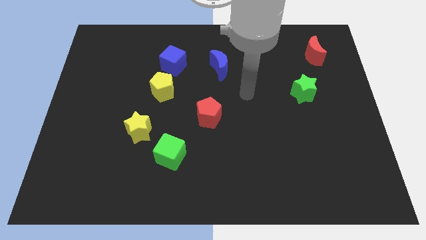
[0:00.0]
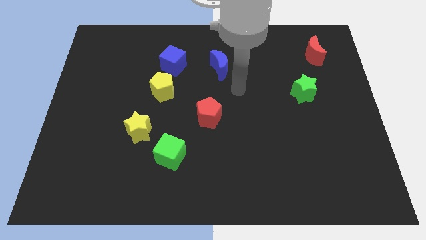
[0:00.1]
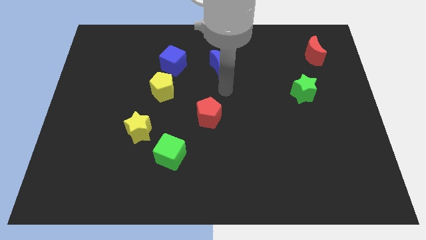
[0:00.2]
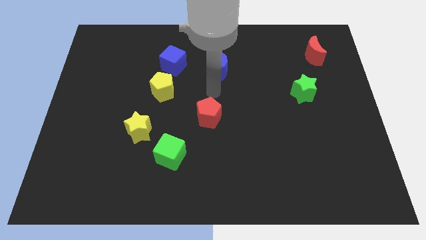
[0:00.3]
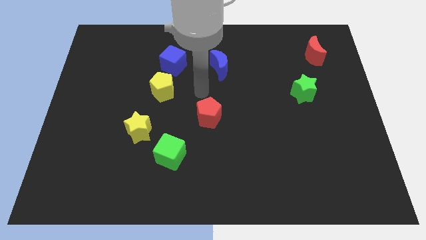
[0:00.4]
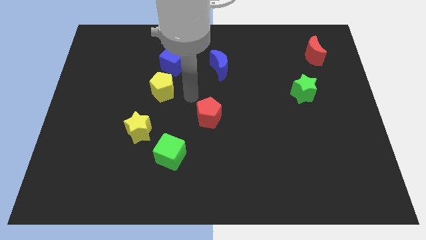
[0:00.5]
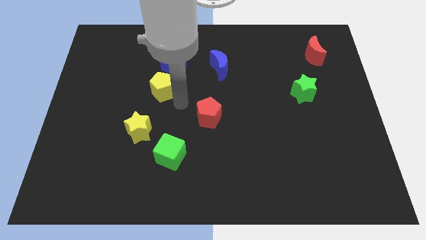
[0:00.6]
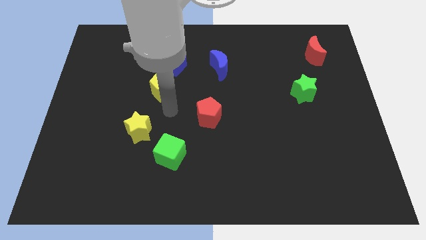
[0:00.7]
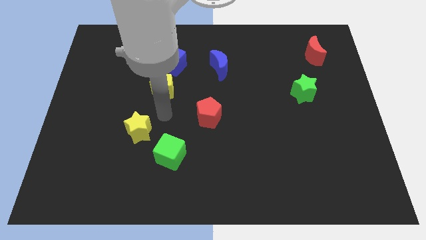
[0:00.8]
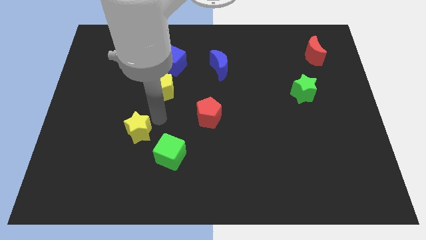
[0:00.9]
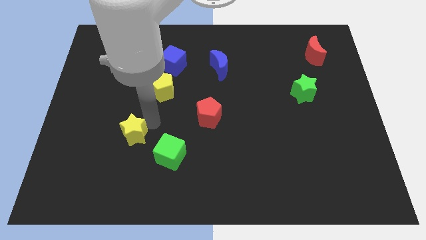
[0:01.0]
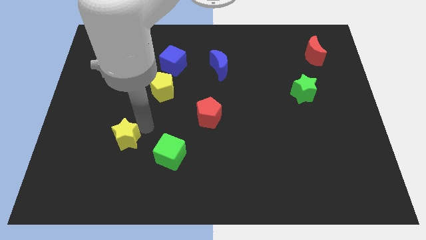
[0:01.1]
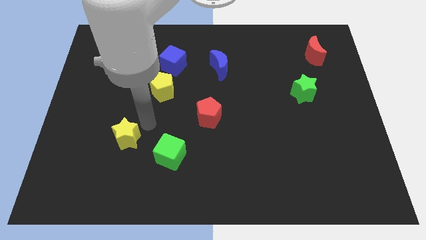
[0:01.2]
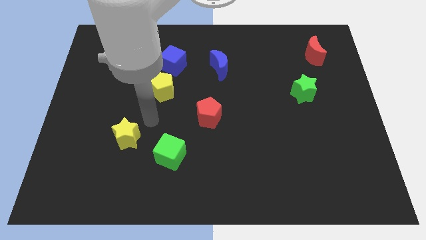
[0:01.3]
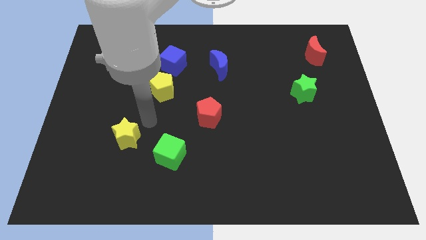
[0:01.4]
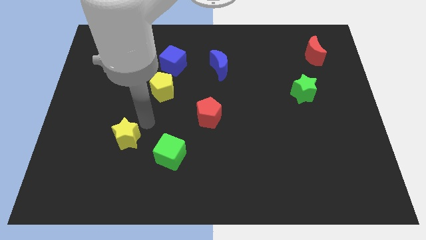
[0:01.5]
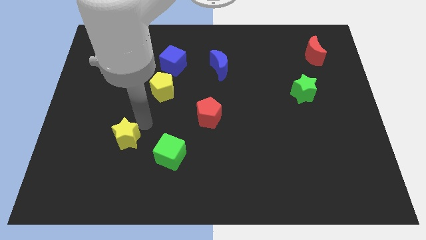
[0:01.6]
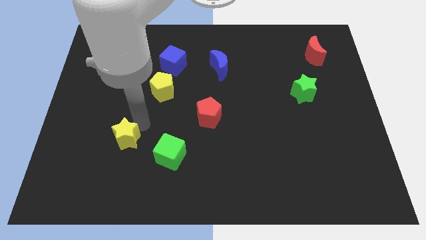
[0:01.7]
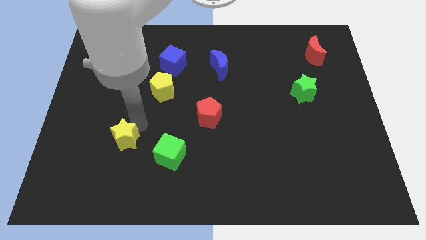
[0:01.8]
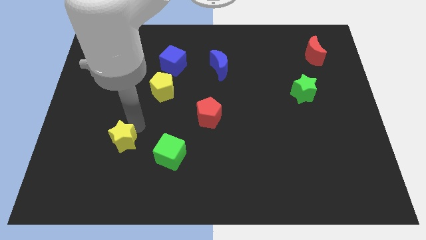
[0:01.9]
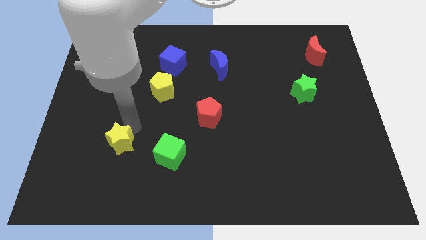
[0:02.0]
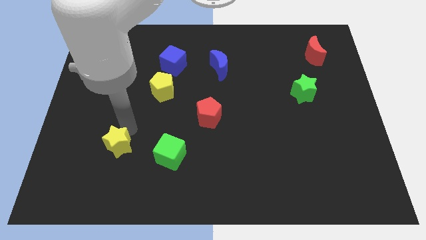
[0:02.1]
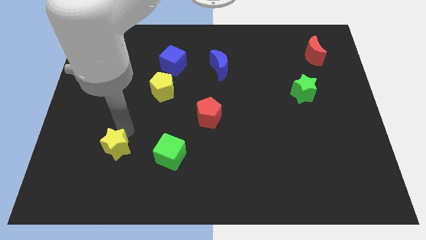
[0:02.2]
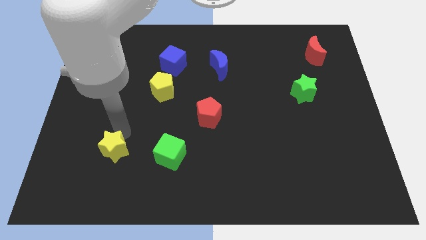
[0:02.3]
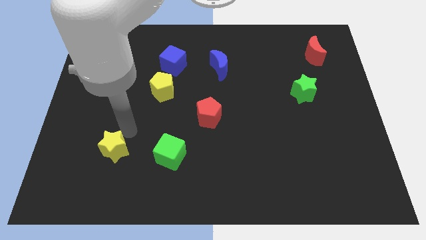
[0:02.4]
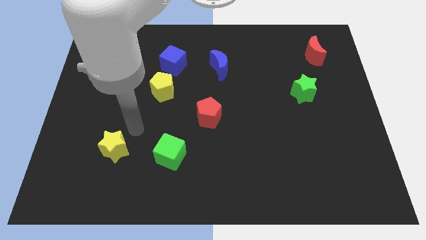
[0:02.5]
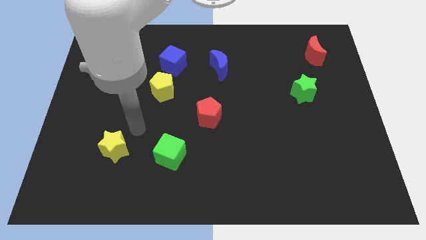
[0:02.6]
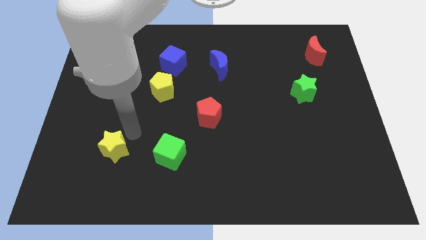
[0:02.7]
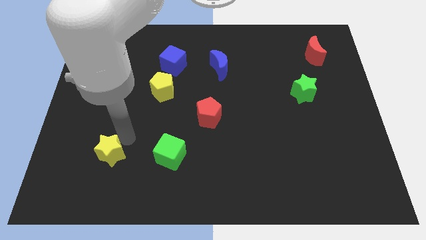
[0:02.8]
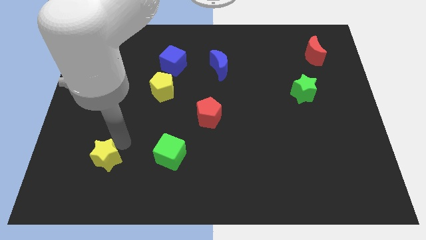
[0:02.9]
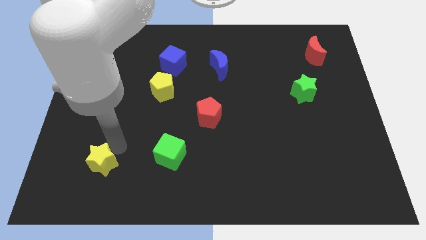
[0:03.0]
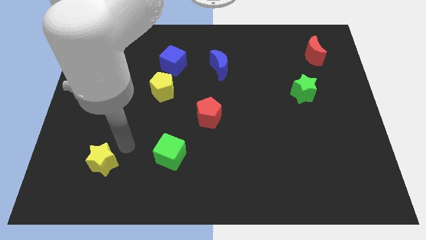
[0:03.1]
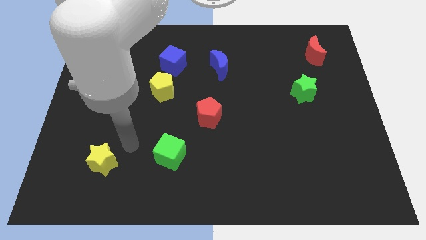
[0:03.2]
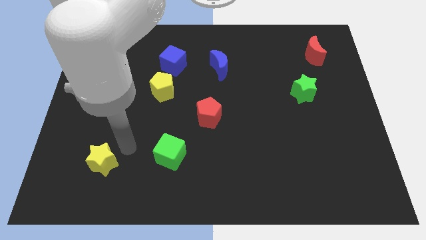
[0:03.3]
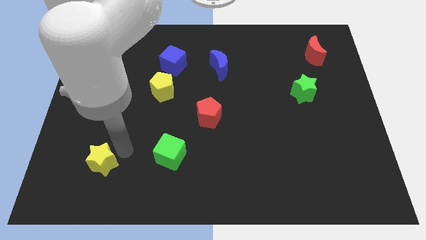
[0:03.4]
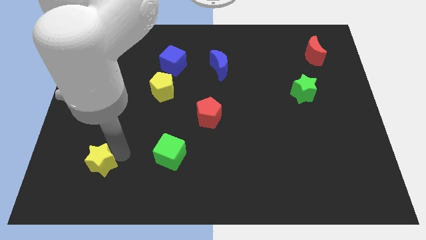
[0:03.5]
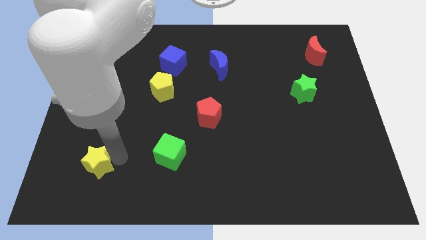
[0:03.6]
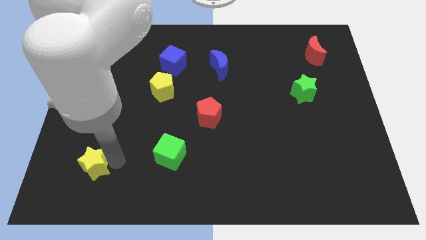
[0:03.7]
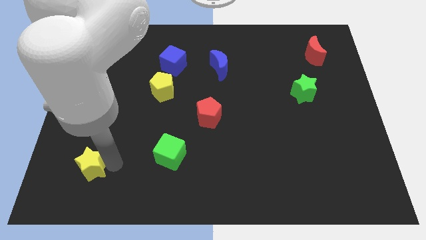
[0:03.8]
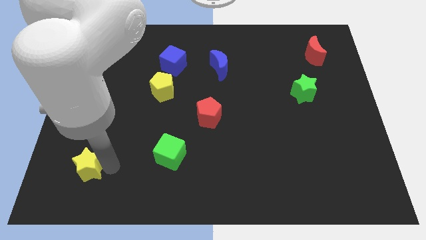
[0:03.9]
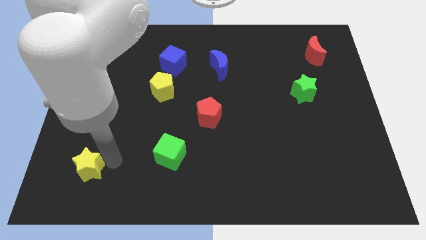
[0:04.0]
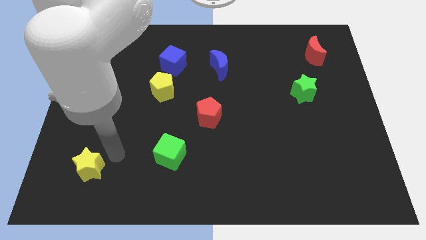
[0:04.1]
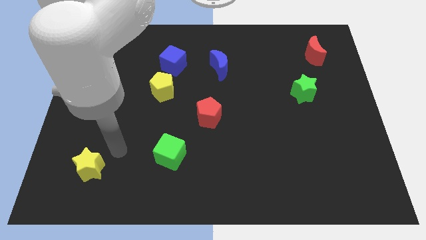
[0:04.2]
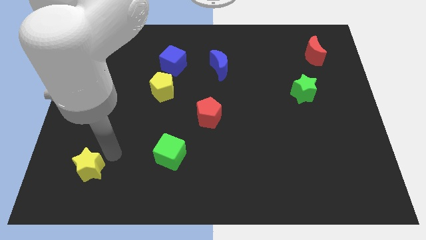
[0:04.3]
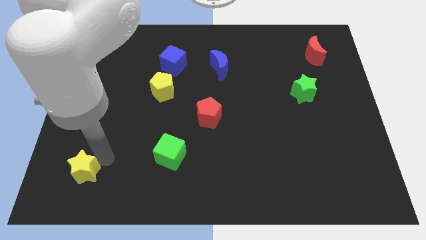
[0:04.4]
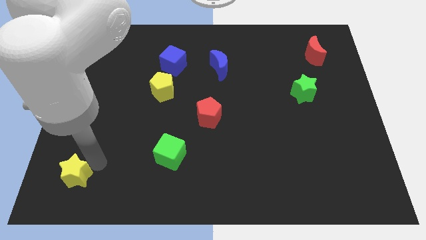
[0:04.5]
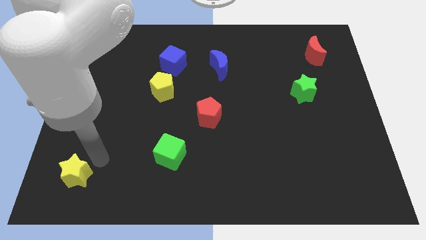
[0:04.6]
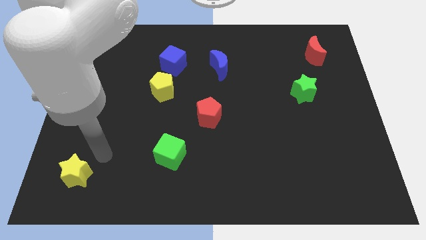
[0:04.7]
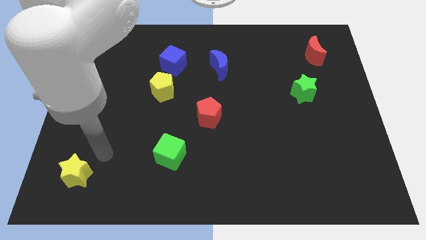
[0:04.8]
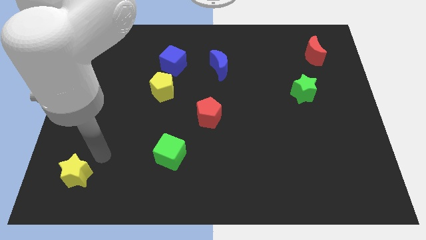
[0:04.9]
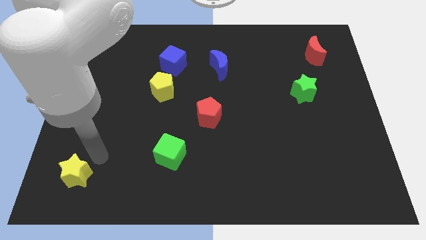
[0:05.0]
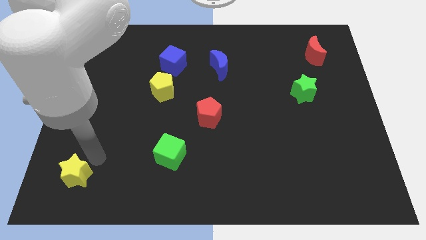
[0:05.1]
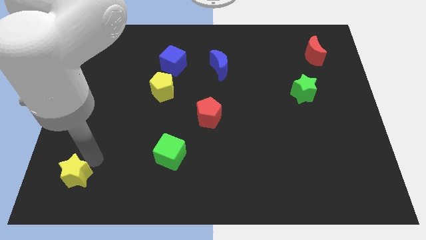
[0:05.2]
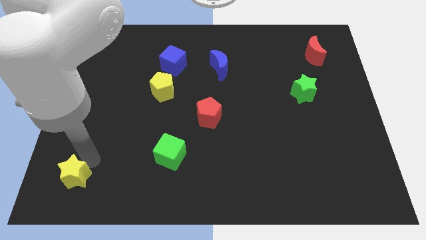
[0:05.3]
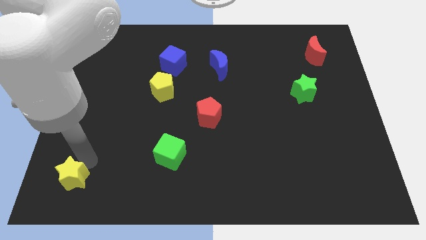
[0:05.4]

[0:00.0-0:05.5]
move the yellow star to the bottom left corner
